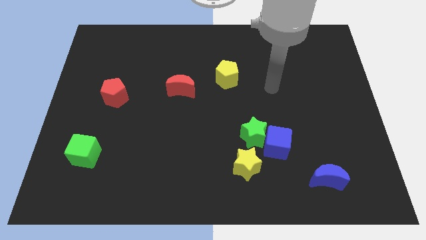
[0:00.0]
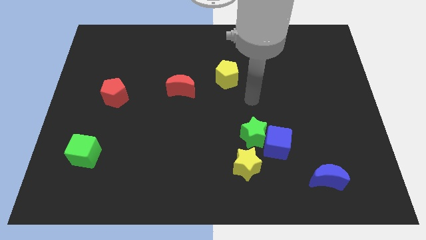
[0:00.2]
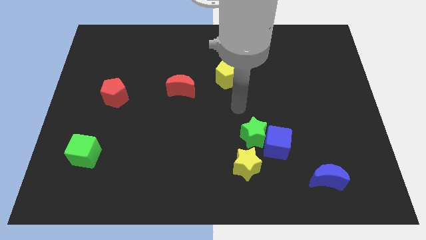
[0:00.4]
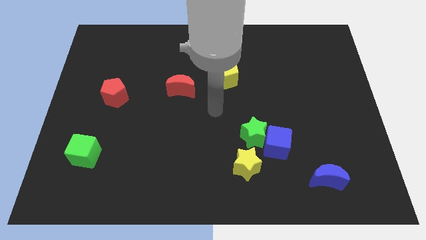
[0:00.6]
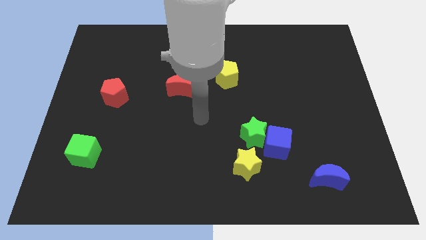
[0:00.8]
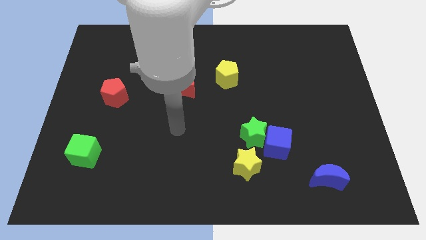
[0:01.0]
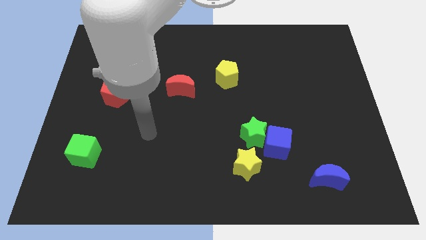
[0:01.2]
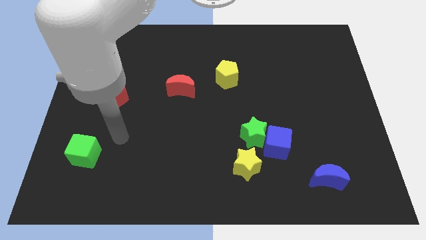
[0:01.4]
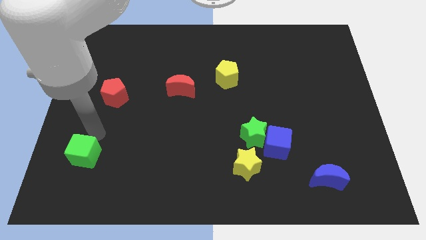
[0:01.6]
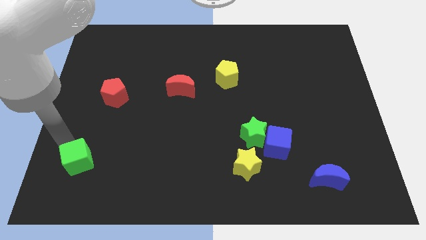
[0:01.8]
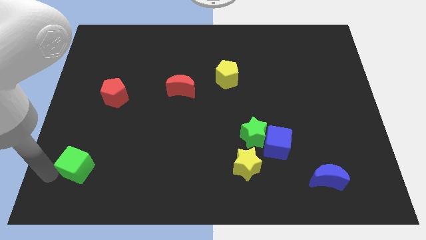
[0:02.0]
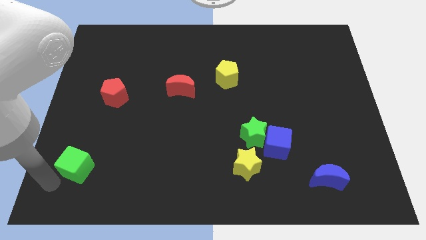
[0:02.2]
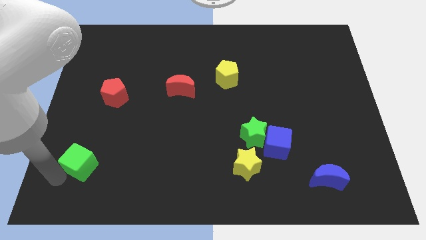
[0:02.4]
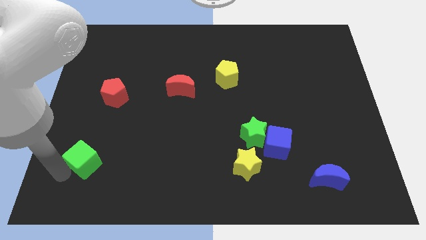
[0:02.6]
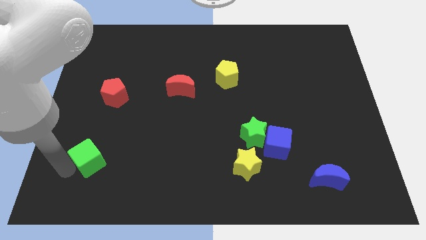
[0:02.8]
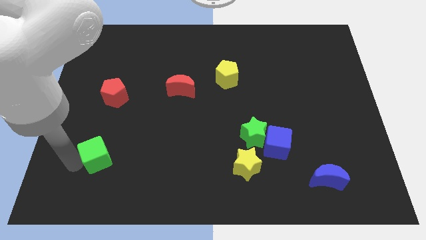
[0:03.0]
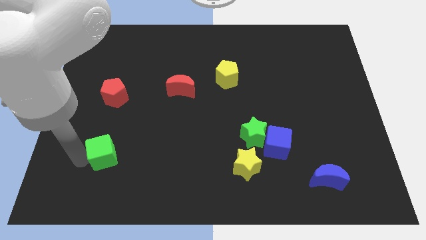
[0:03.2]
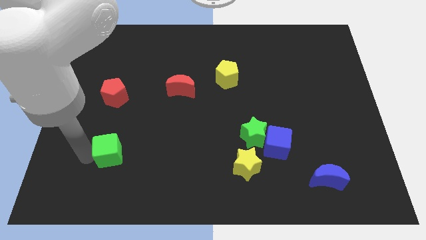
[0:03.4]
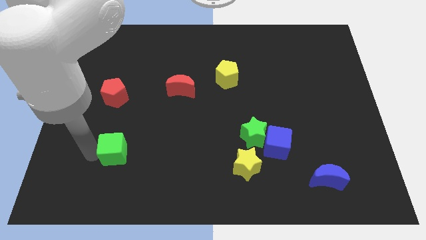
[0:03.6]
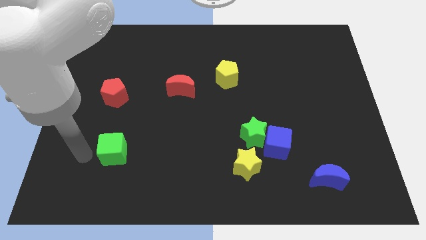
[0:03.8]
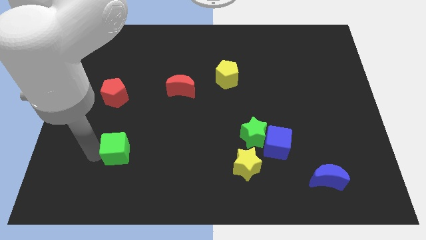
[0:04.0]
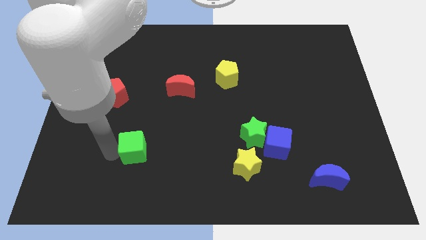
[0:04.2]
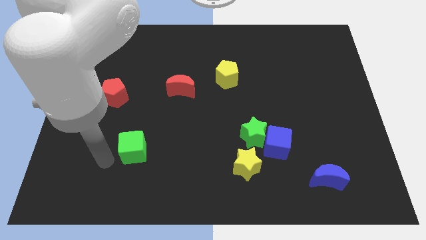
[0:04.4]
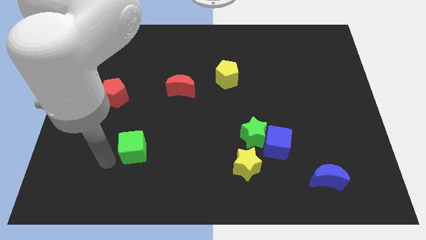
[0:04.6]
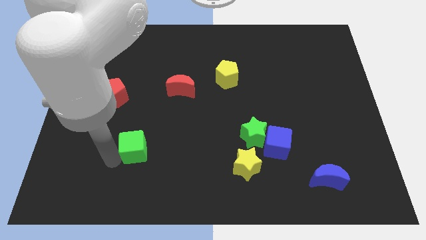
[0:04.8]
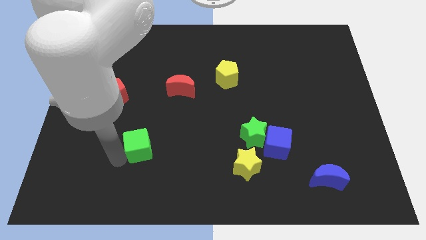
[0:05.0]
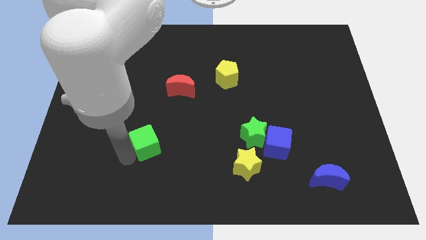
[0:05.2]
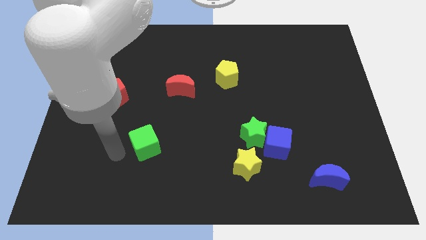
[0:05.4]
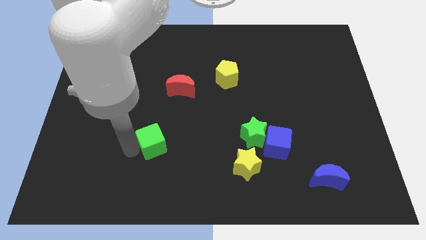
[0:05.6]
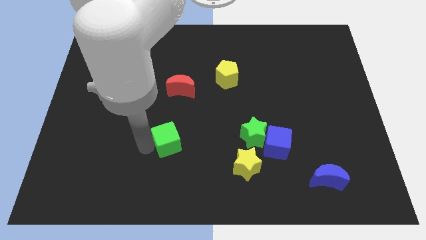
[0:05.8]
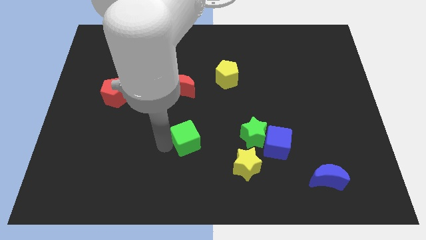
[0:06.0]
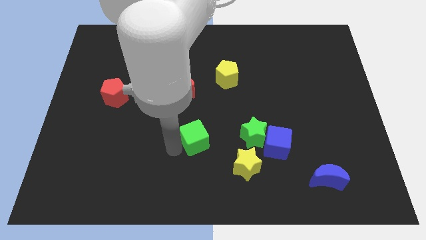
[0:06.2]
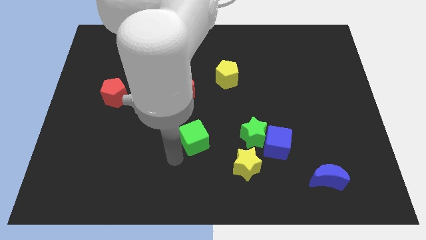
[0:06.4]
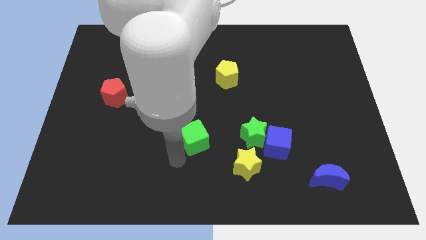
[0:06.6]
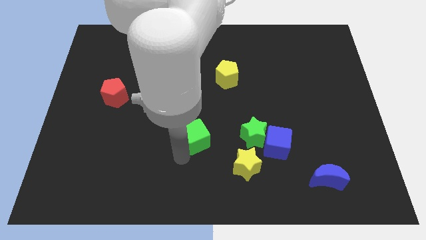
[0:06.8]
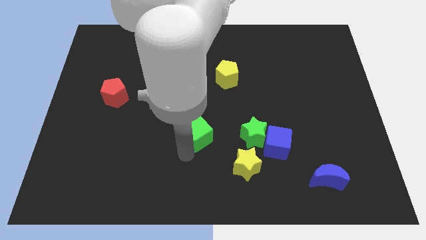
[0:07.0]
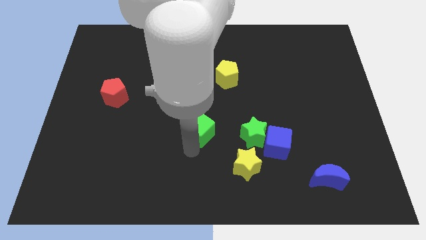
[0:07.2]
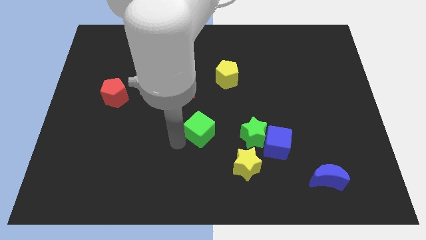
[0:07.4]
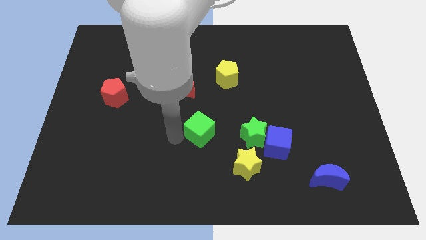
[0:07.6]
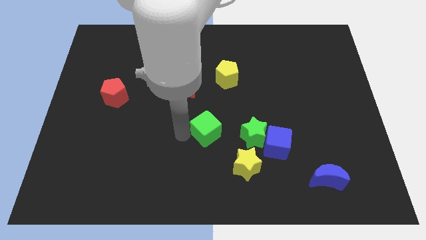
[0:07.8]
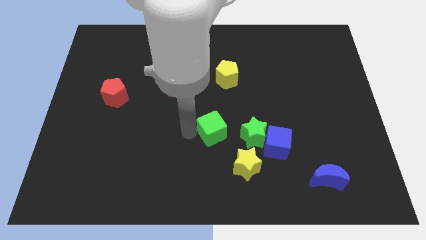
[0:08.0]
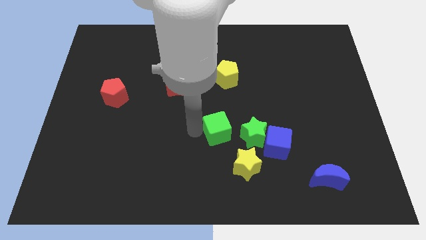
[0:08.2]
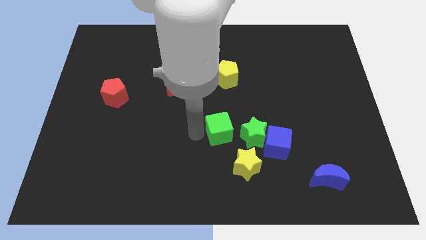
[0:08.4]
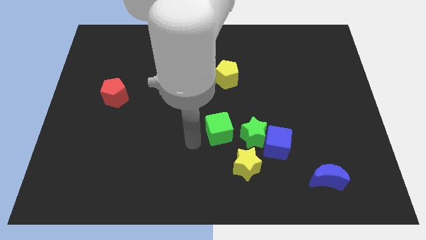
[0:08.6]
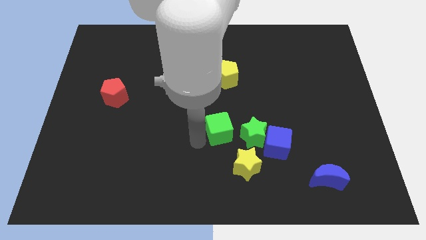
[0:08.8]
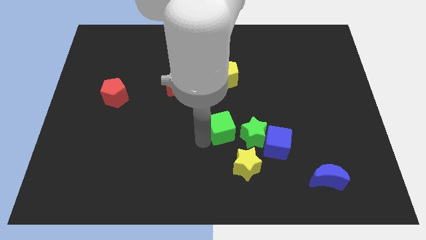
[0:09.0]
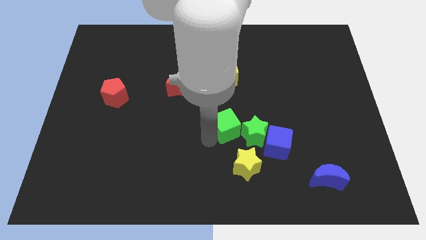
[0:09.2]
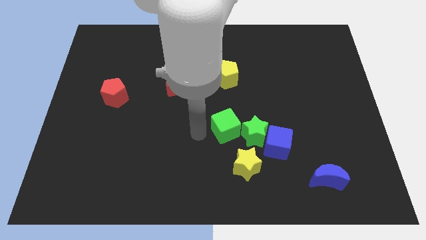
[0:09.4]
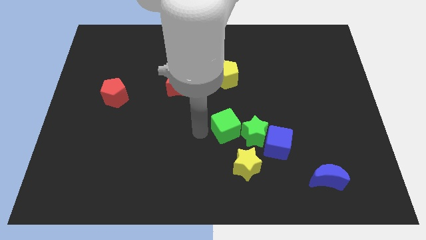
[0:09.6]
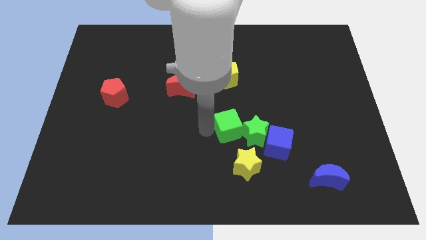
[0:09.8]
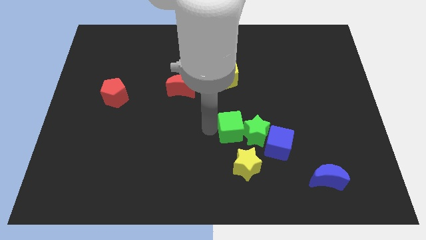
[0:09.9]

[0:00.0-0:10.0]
push the green cube to the top left side of the blue cube

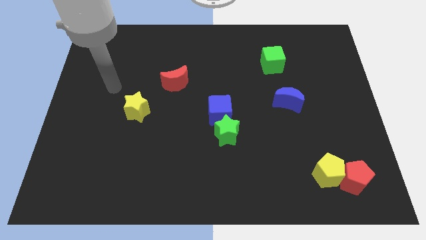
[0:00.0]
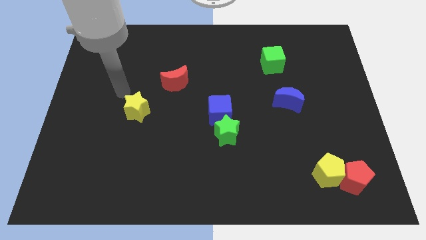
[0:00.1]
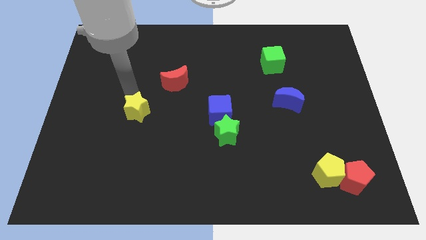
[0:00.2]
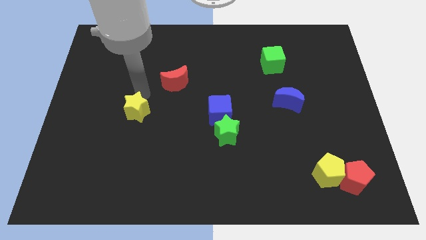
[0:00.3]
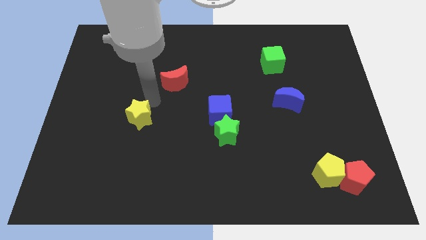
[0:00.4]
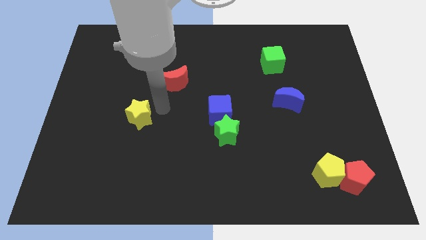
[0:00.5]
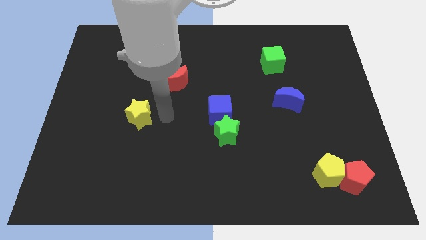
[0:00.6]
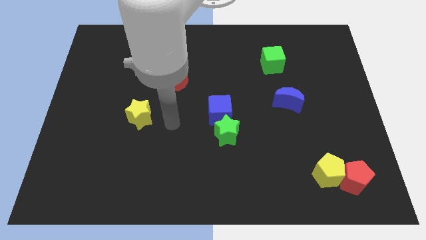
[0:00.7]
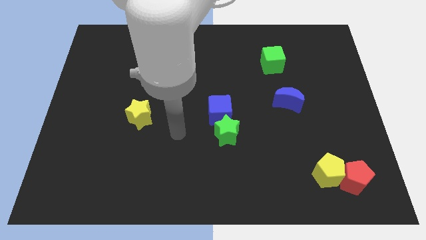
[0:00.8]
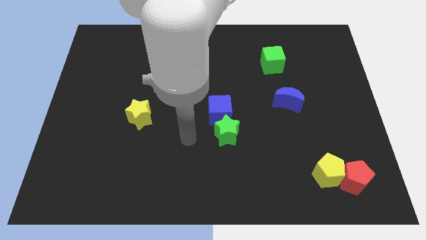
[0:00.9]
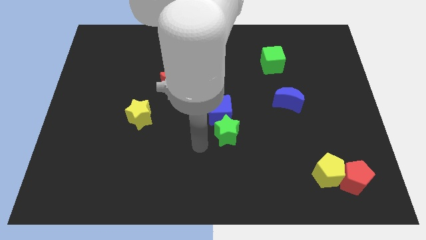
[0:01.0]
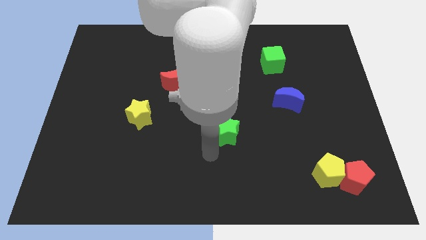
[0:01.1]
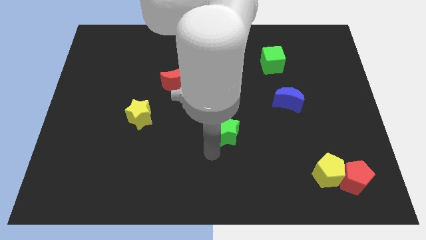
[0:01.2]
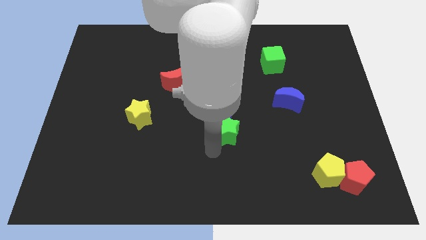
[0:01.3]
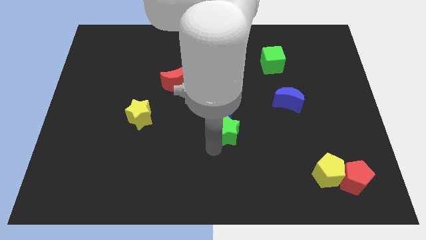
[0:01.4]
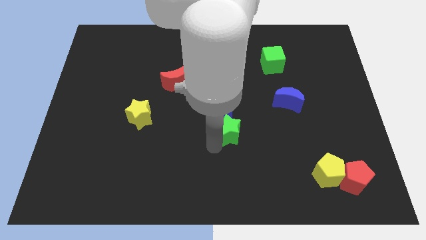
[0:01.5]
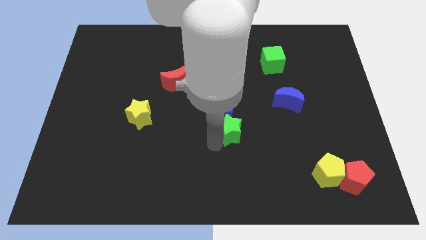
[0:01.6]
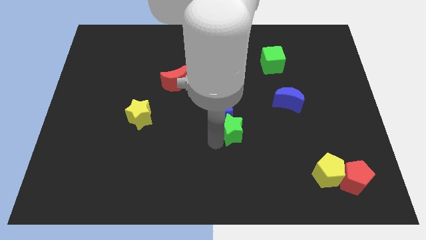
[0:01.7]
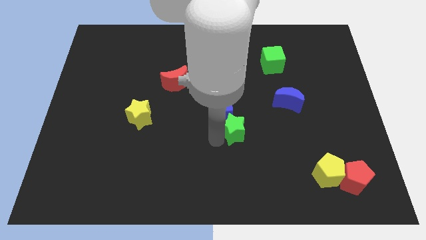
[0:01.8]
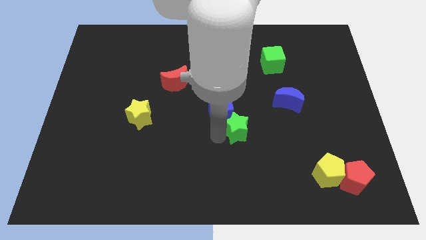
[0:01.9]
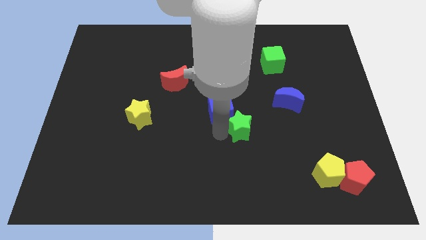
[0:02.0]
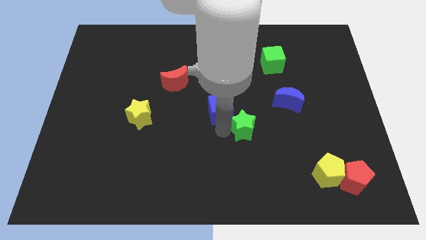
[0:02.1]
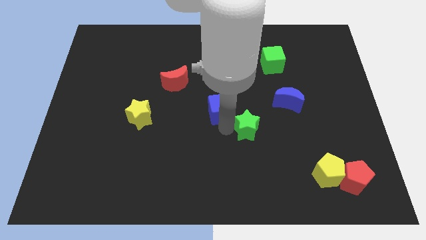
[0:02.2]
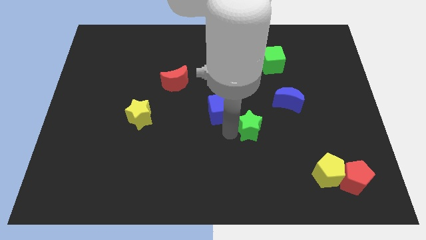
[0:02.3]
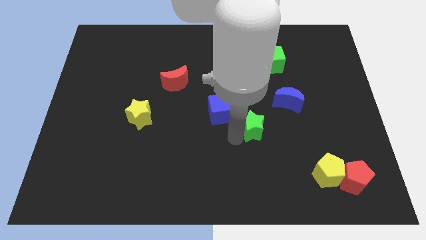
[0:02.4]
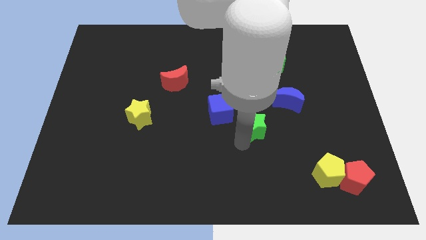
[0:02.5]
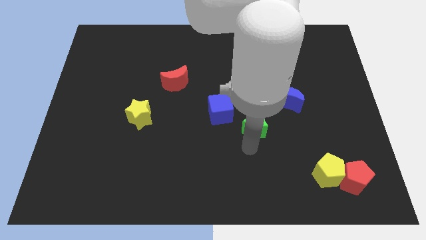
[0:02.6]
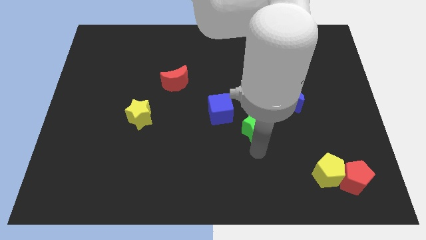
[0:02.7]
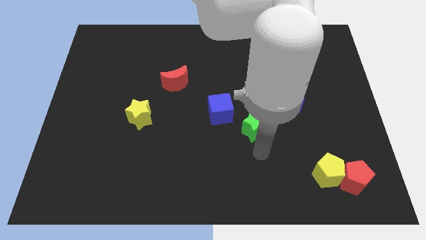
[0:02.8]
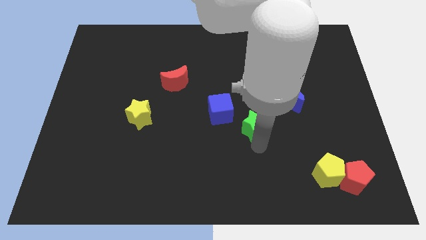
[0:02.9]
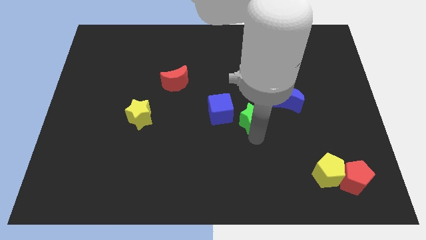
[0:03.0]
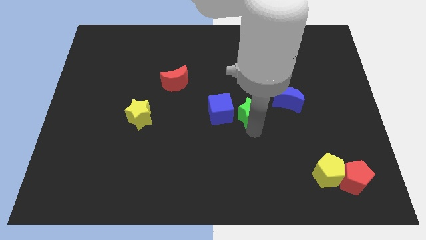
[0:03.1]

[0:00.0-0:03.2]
move the green star just left of the blue moon
